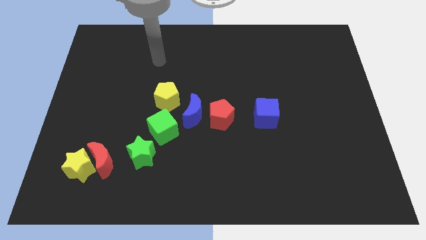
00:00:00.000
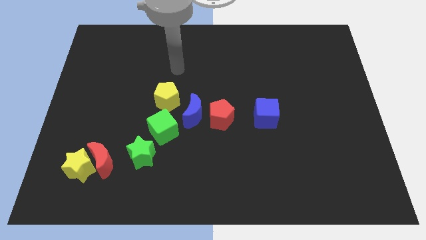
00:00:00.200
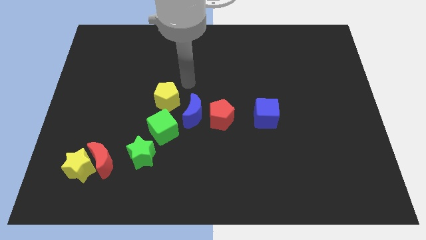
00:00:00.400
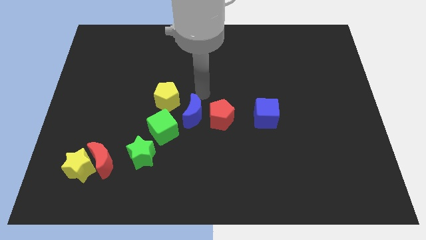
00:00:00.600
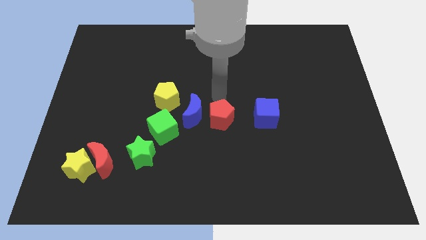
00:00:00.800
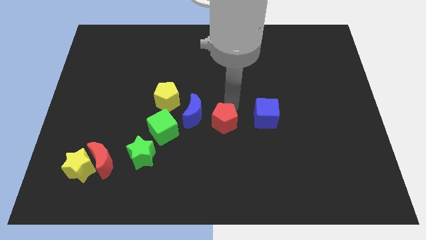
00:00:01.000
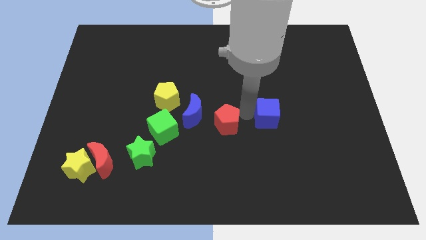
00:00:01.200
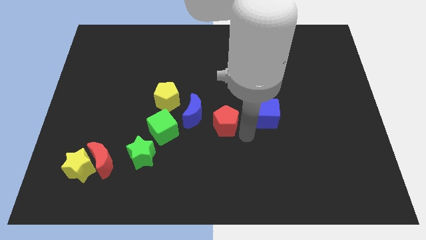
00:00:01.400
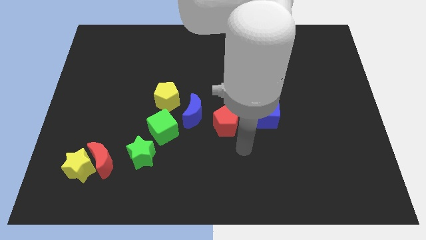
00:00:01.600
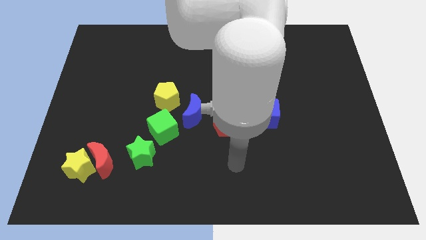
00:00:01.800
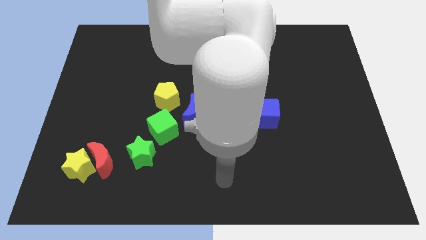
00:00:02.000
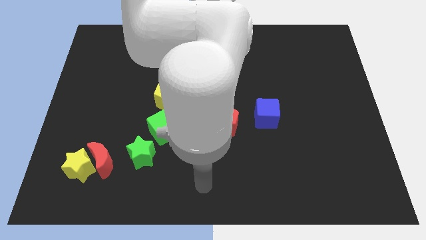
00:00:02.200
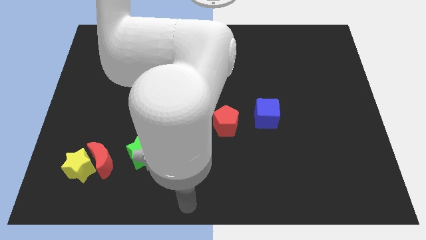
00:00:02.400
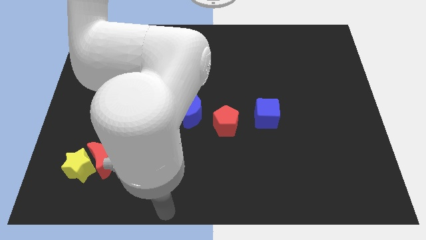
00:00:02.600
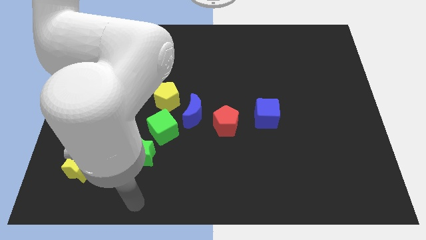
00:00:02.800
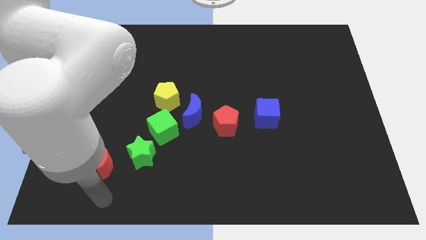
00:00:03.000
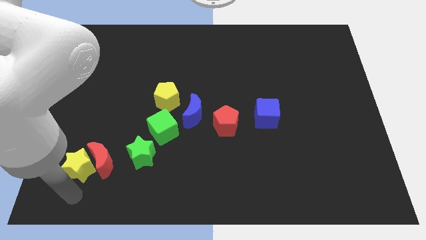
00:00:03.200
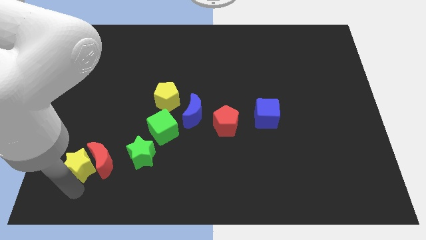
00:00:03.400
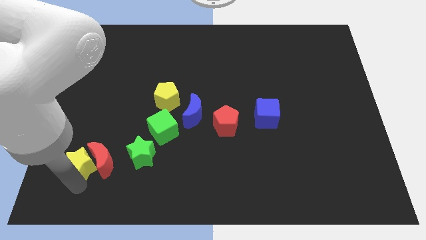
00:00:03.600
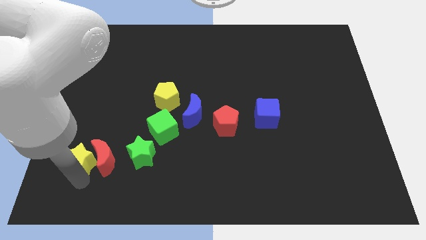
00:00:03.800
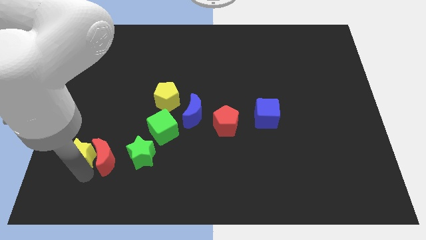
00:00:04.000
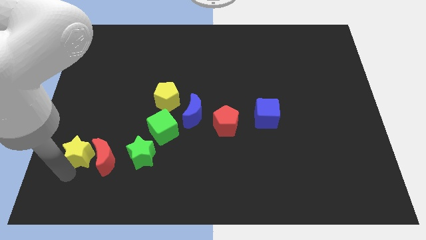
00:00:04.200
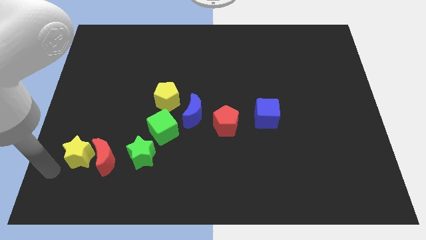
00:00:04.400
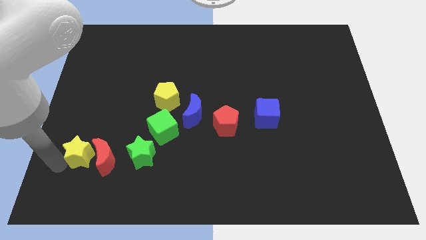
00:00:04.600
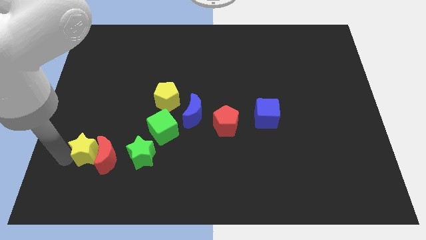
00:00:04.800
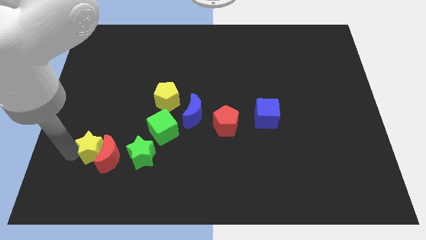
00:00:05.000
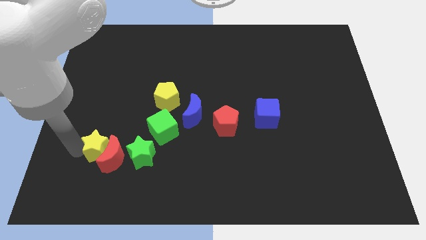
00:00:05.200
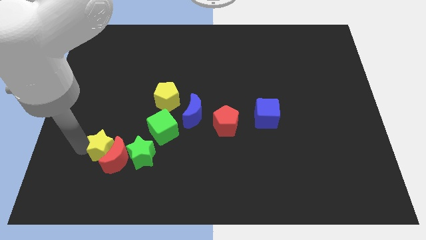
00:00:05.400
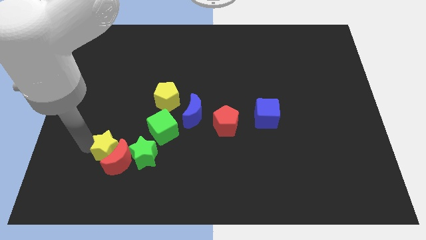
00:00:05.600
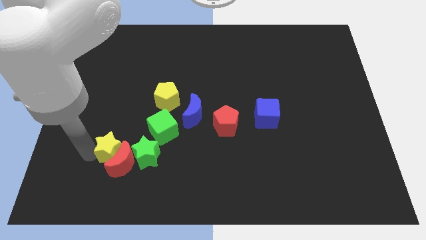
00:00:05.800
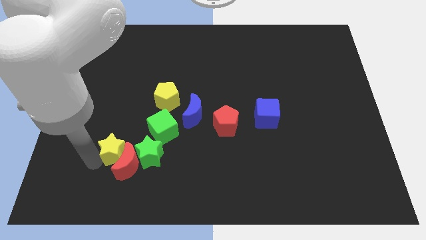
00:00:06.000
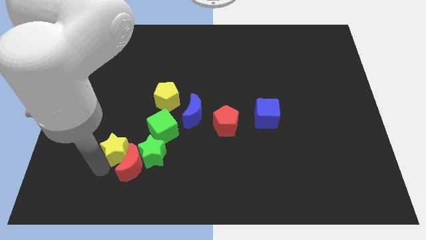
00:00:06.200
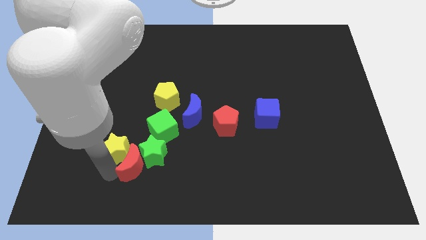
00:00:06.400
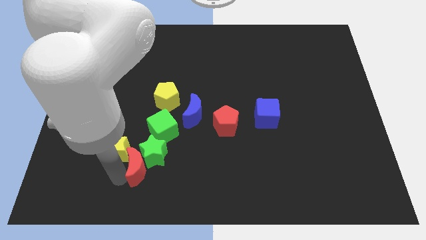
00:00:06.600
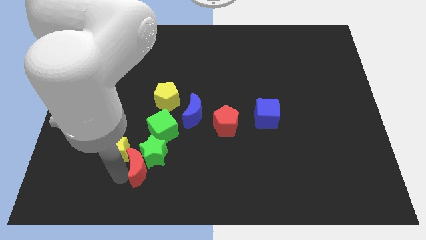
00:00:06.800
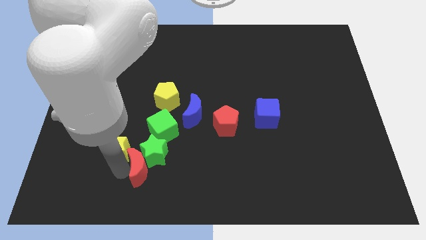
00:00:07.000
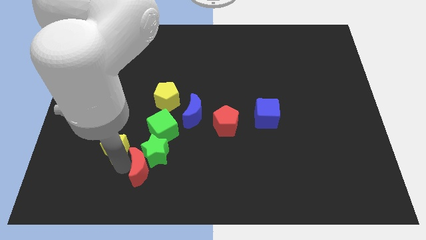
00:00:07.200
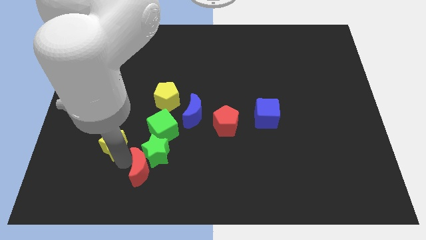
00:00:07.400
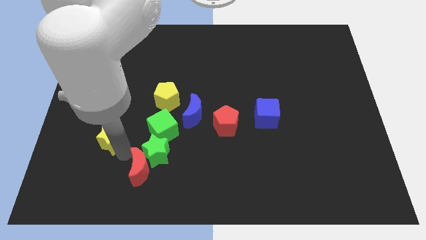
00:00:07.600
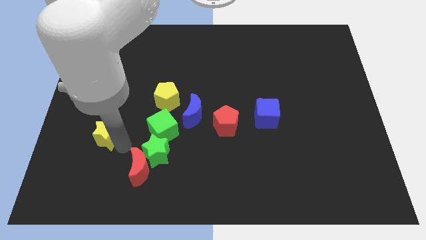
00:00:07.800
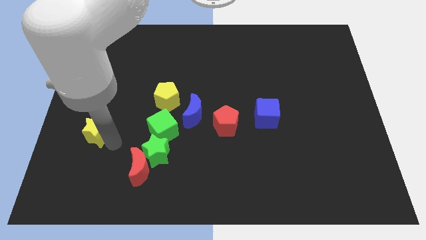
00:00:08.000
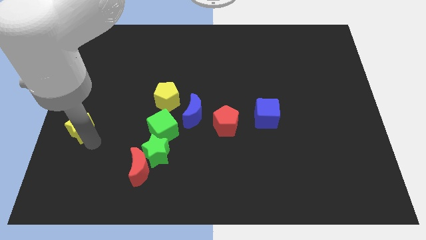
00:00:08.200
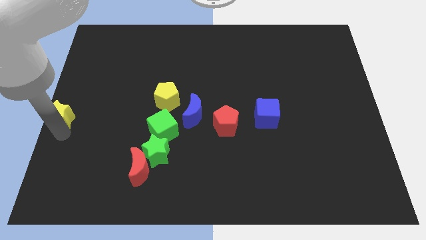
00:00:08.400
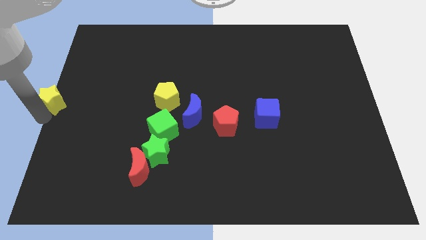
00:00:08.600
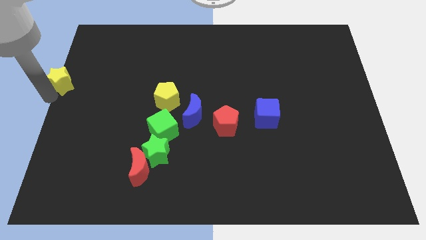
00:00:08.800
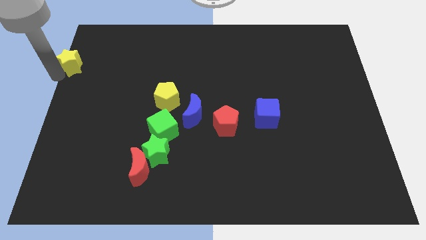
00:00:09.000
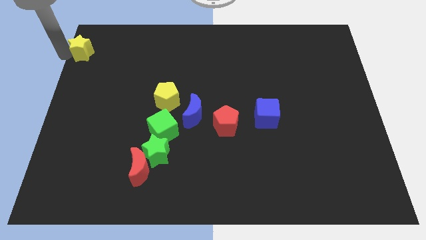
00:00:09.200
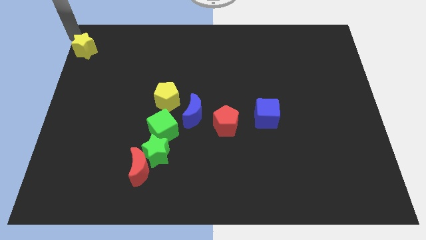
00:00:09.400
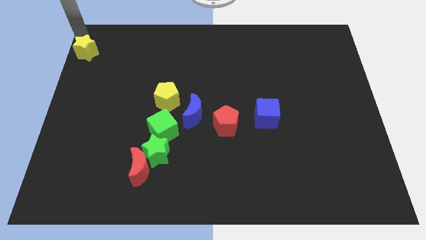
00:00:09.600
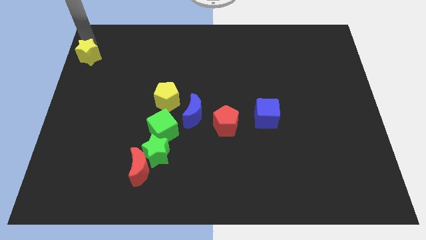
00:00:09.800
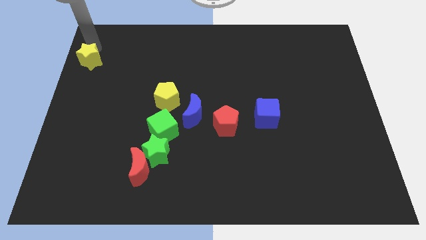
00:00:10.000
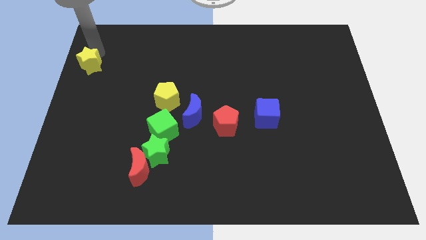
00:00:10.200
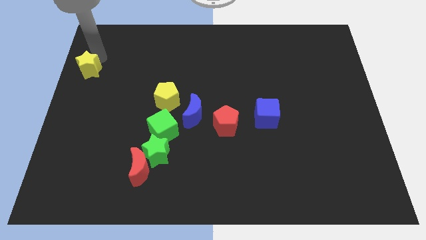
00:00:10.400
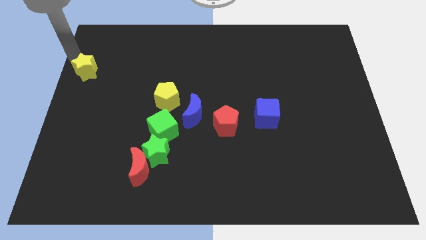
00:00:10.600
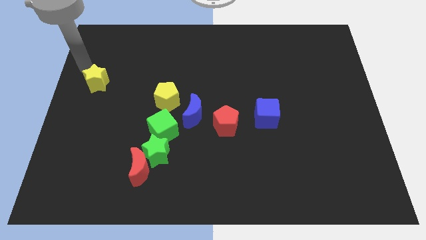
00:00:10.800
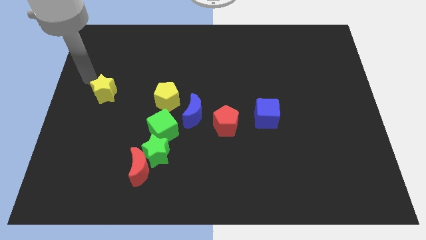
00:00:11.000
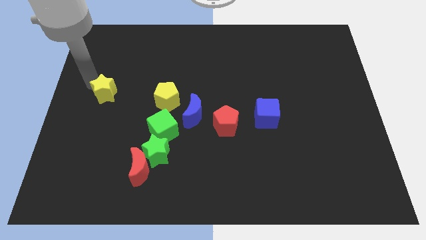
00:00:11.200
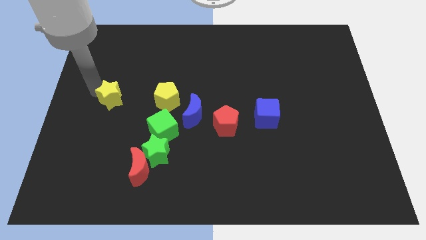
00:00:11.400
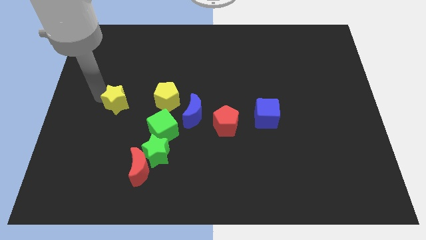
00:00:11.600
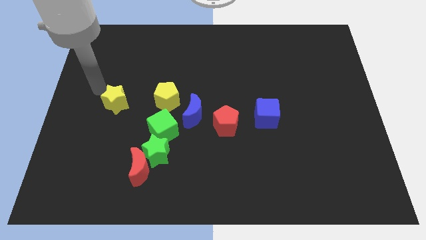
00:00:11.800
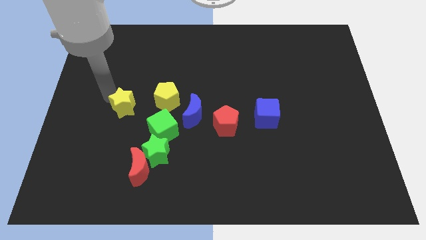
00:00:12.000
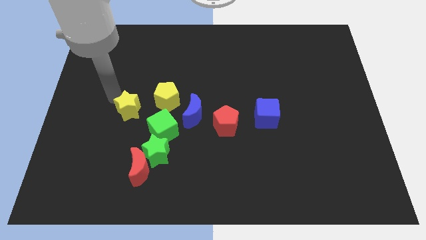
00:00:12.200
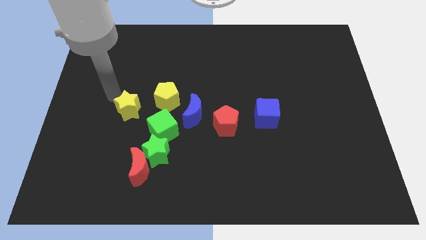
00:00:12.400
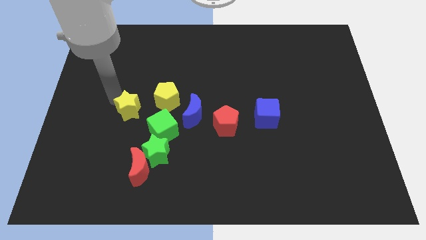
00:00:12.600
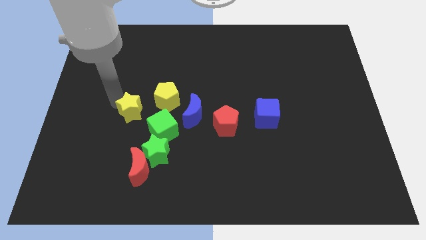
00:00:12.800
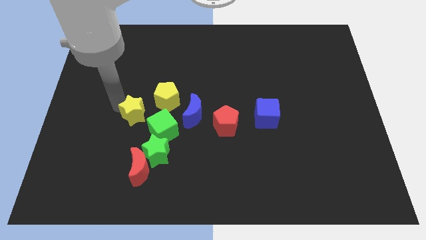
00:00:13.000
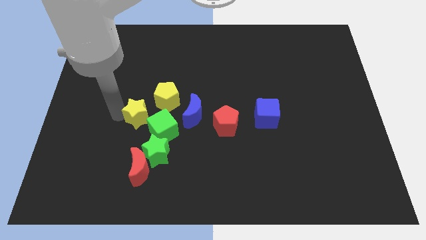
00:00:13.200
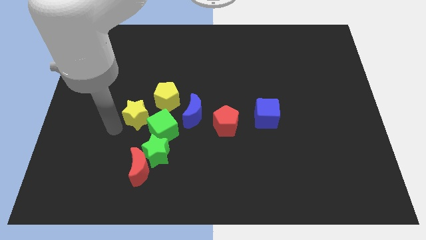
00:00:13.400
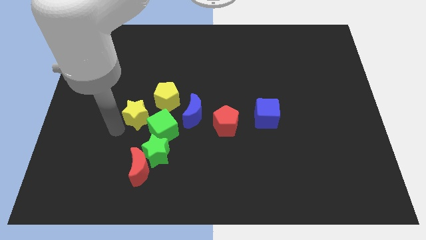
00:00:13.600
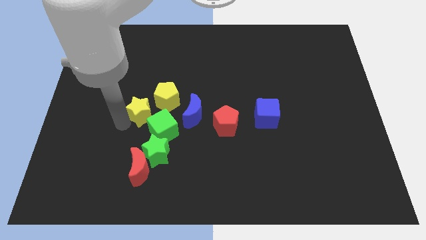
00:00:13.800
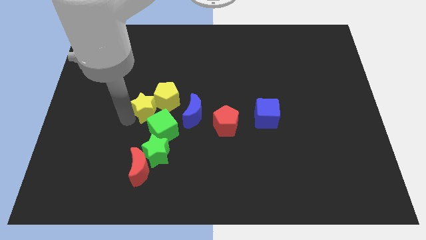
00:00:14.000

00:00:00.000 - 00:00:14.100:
put the yellow star to the yellow pentagon
